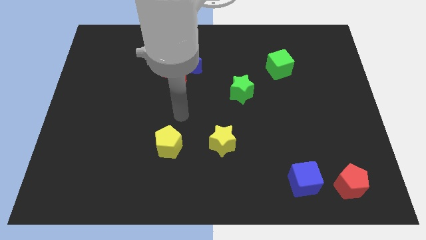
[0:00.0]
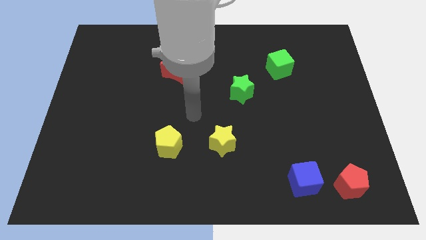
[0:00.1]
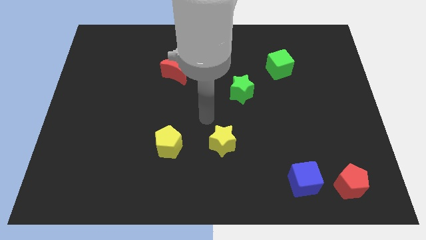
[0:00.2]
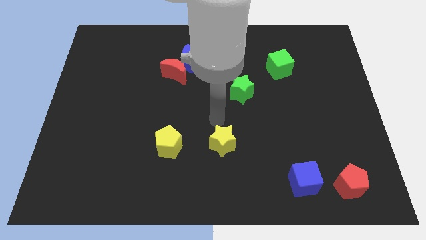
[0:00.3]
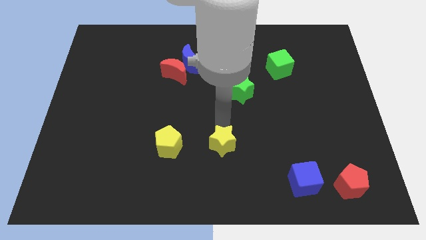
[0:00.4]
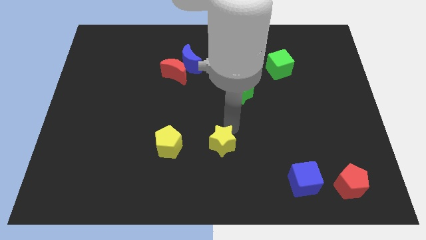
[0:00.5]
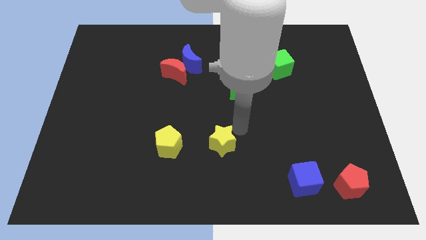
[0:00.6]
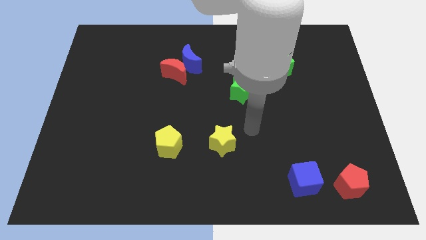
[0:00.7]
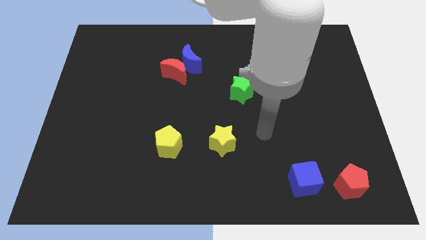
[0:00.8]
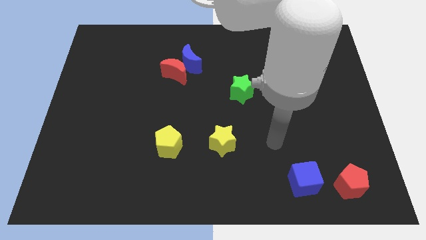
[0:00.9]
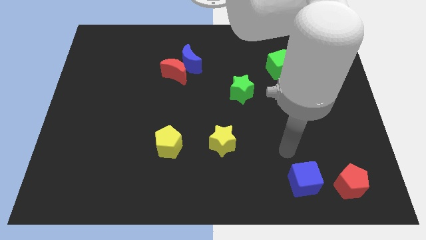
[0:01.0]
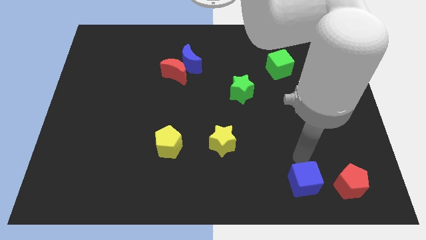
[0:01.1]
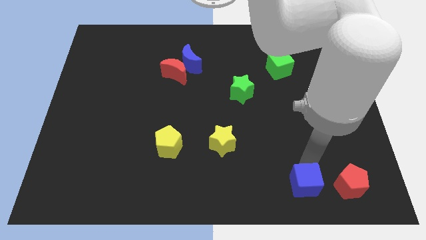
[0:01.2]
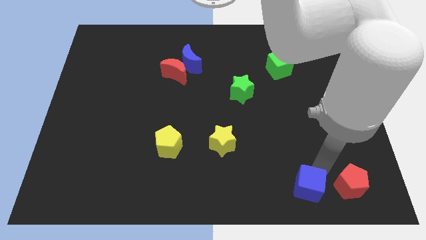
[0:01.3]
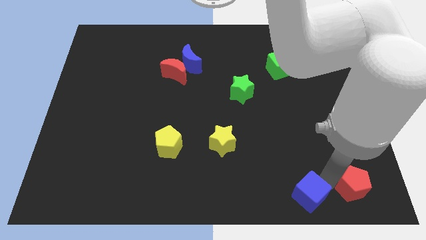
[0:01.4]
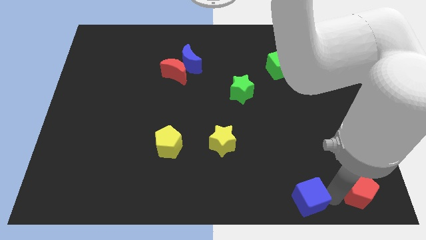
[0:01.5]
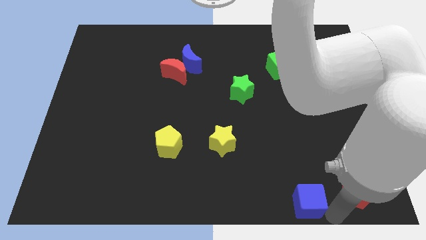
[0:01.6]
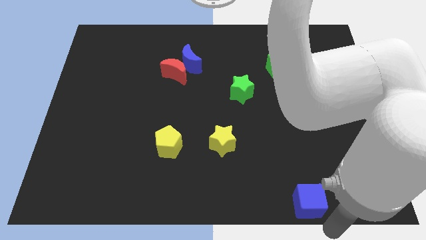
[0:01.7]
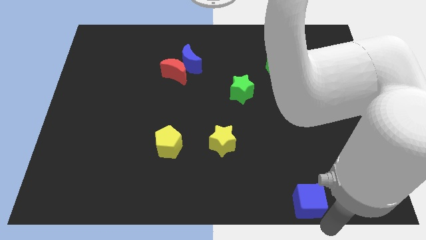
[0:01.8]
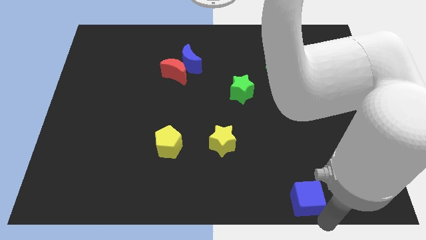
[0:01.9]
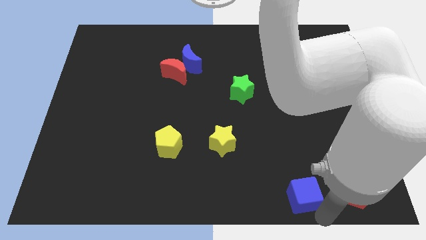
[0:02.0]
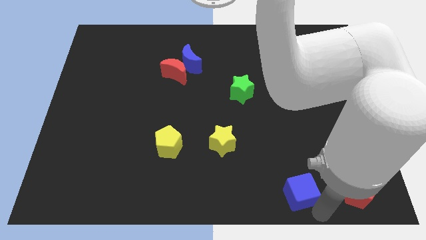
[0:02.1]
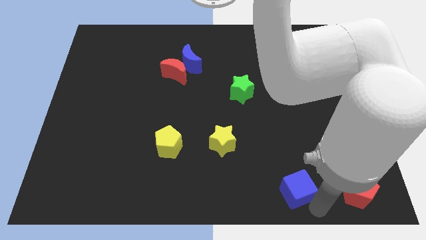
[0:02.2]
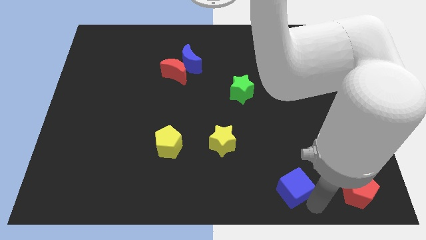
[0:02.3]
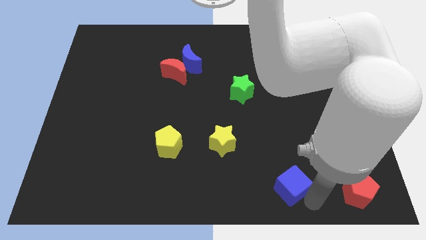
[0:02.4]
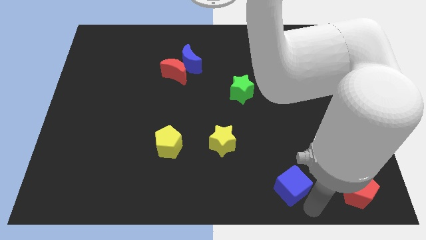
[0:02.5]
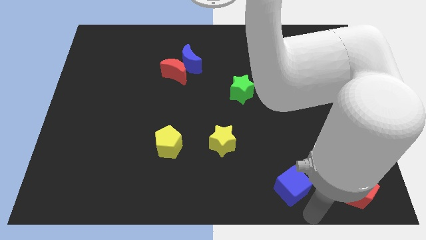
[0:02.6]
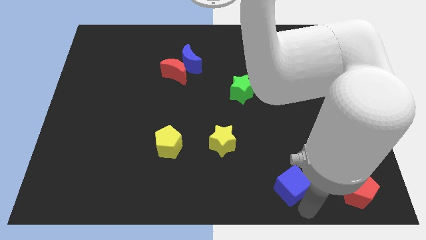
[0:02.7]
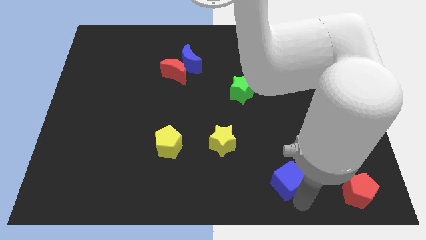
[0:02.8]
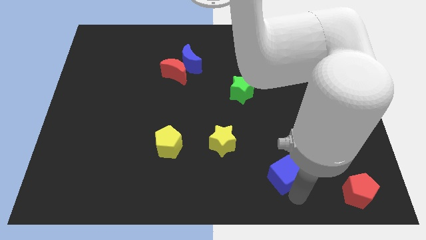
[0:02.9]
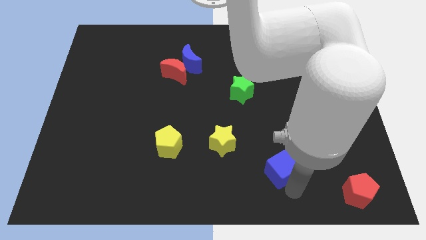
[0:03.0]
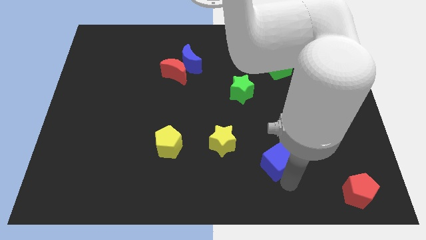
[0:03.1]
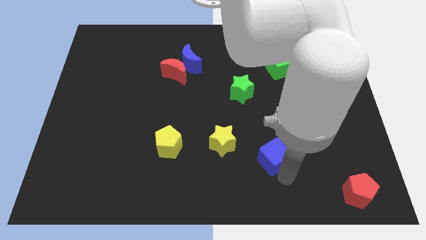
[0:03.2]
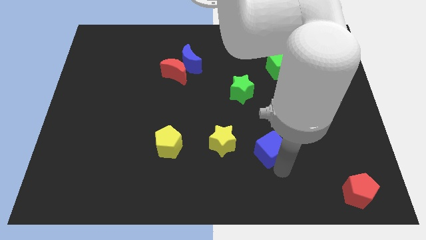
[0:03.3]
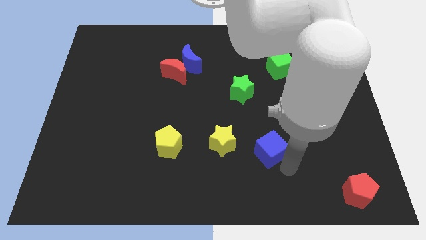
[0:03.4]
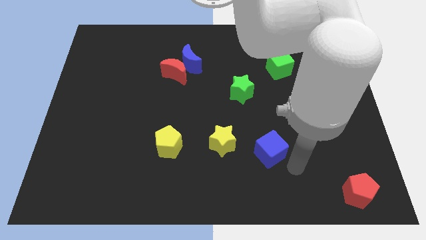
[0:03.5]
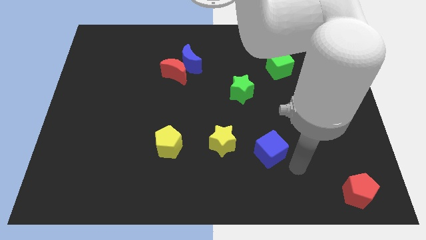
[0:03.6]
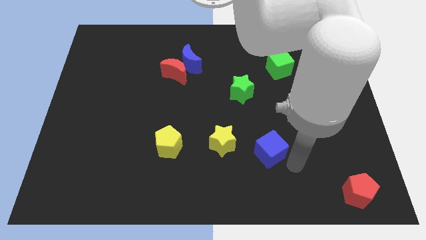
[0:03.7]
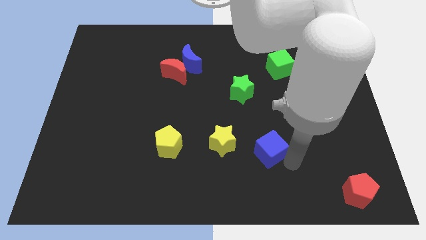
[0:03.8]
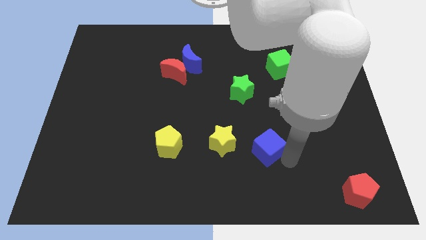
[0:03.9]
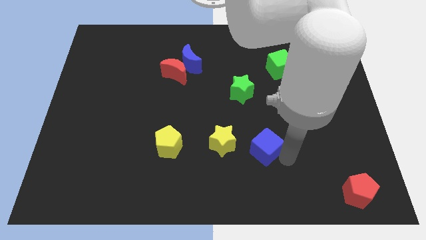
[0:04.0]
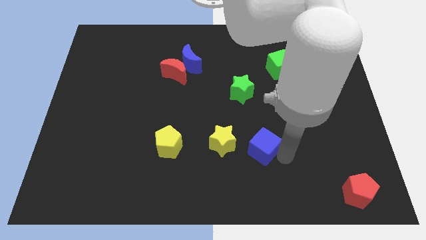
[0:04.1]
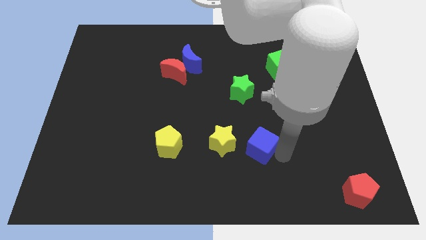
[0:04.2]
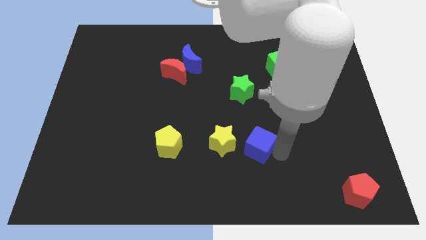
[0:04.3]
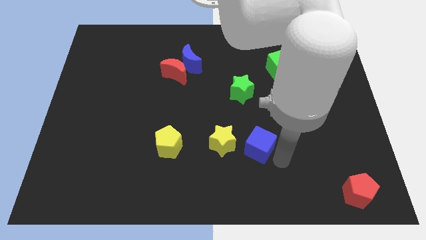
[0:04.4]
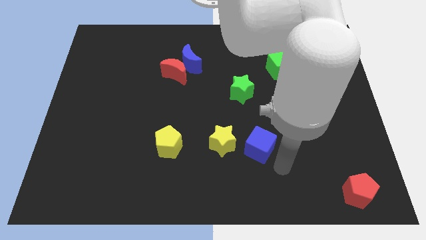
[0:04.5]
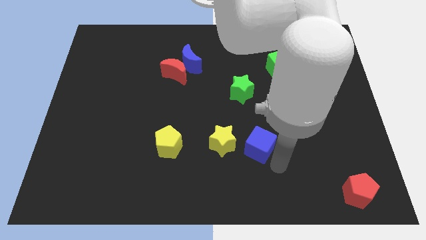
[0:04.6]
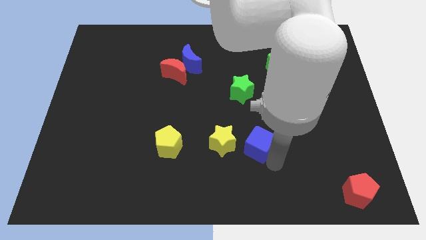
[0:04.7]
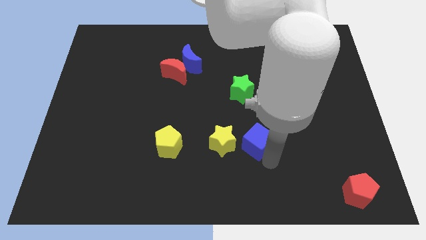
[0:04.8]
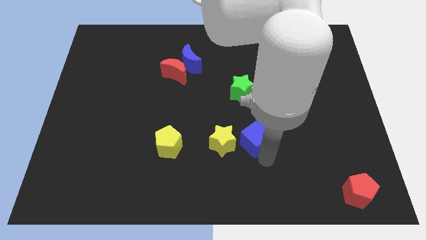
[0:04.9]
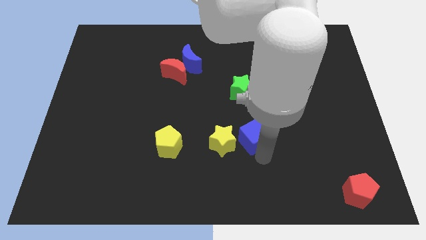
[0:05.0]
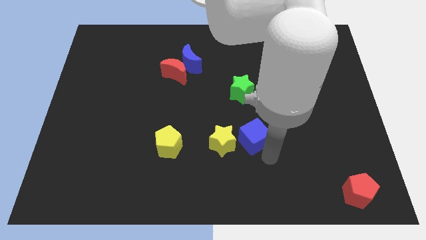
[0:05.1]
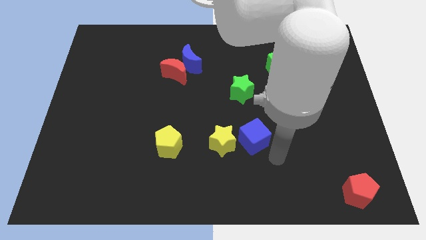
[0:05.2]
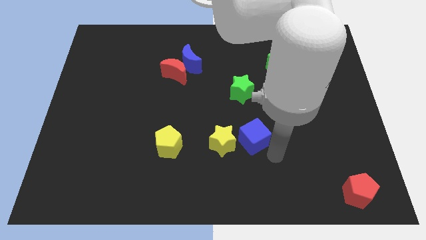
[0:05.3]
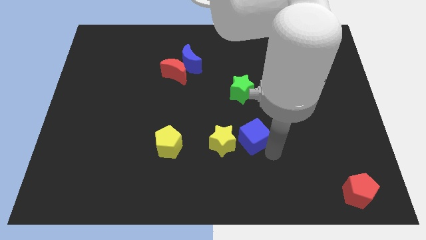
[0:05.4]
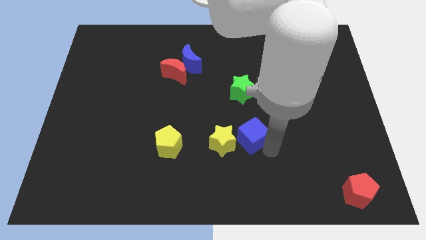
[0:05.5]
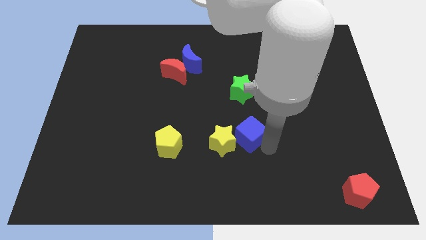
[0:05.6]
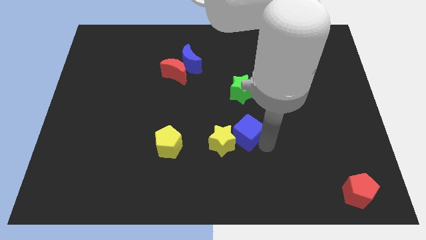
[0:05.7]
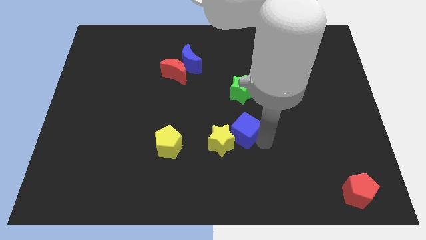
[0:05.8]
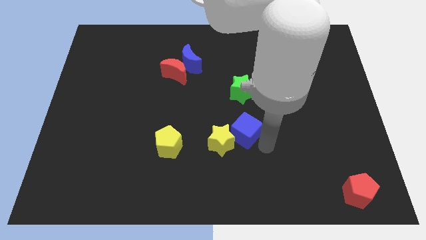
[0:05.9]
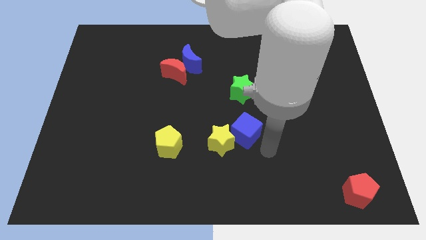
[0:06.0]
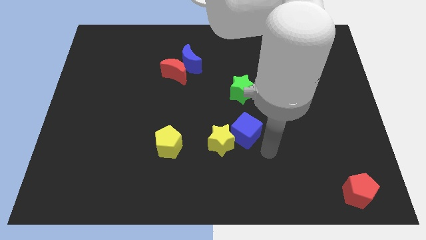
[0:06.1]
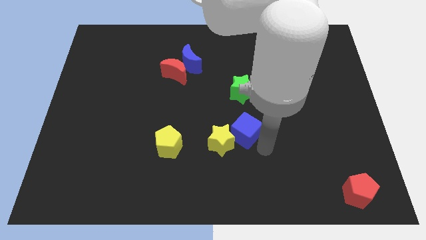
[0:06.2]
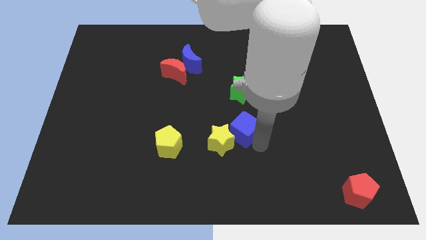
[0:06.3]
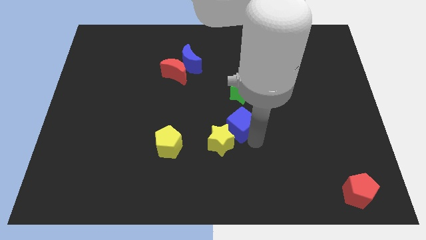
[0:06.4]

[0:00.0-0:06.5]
move the blue cube above the yellow star

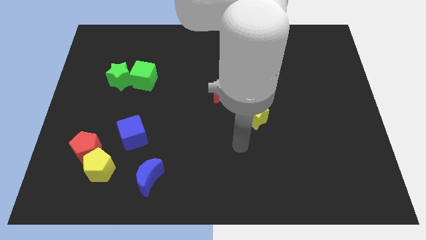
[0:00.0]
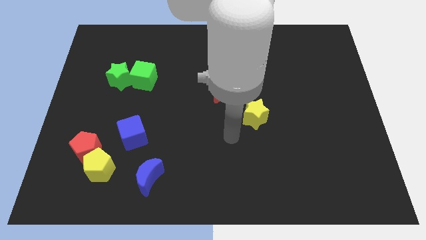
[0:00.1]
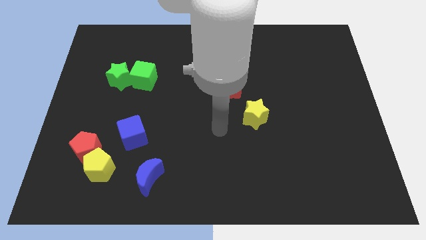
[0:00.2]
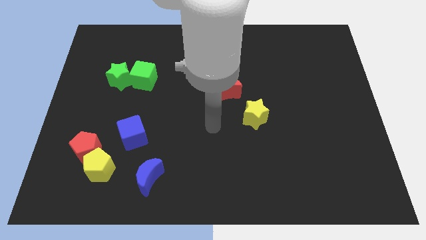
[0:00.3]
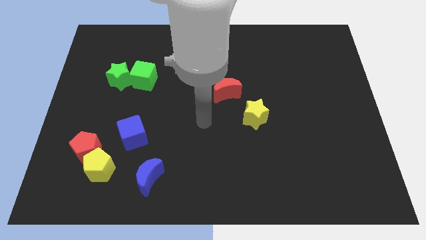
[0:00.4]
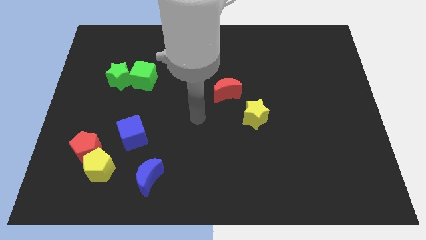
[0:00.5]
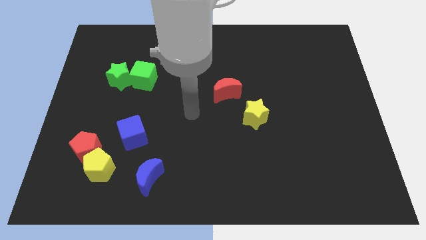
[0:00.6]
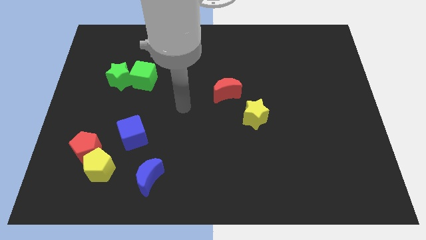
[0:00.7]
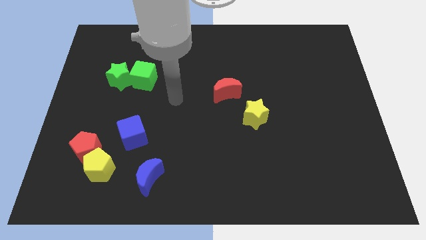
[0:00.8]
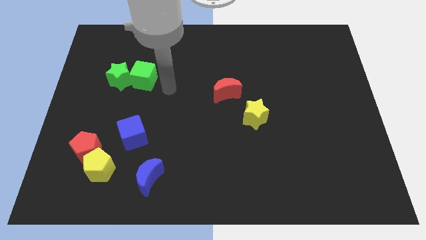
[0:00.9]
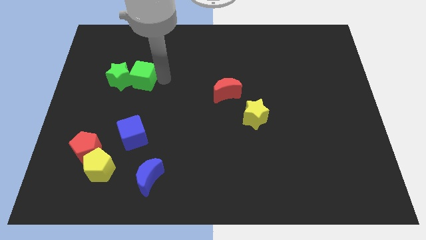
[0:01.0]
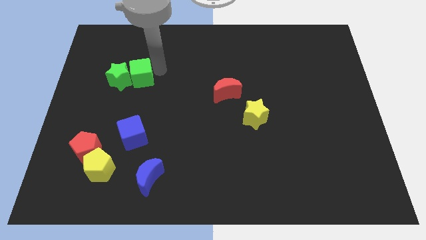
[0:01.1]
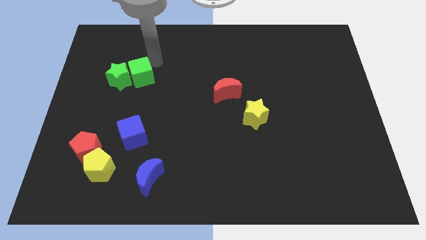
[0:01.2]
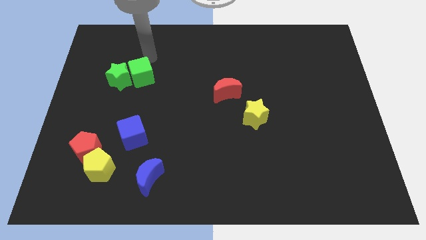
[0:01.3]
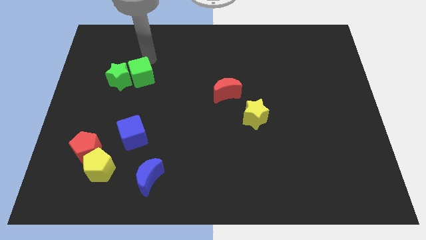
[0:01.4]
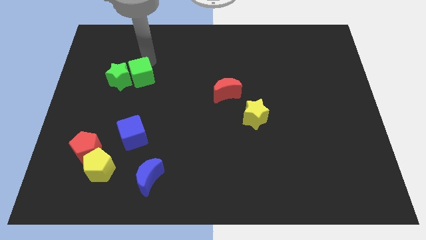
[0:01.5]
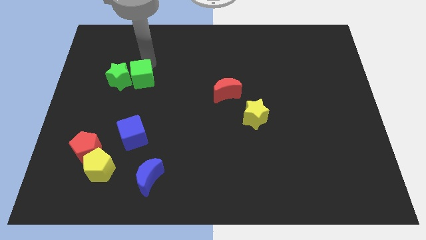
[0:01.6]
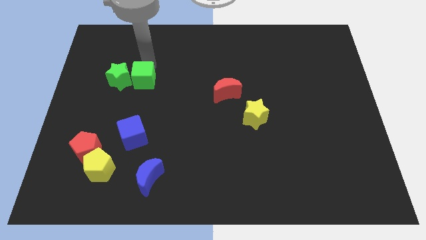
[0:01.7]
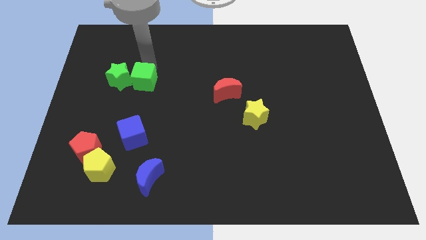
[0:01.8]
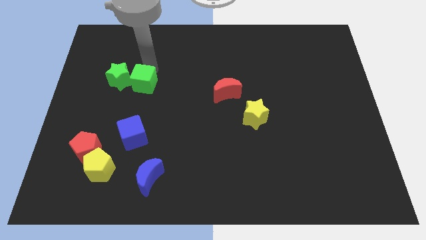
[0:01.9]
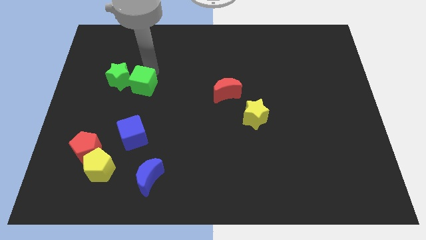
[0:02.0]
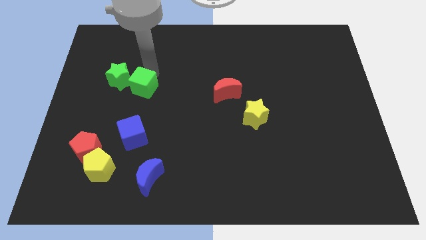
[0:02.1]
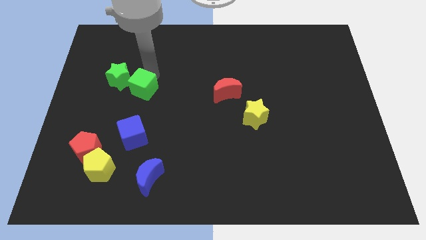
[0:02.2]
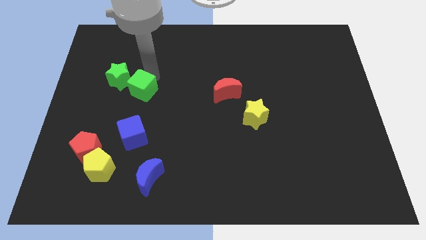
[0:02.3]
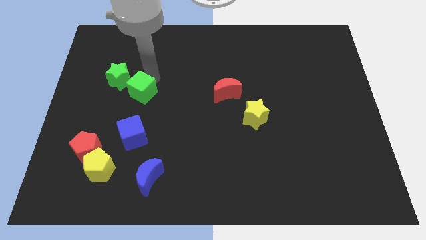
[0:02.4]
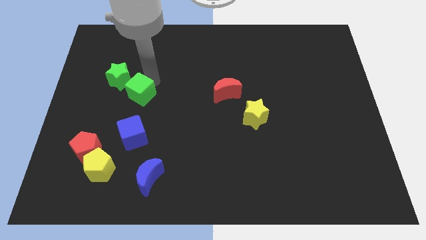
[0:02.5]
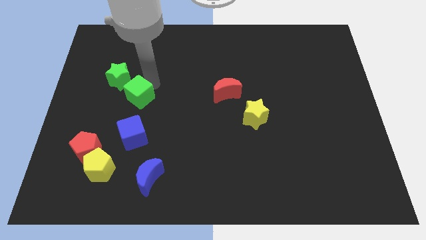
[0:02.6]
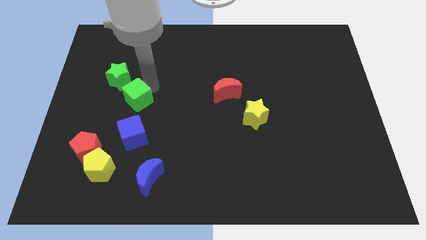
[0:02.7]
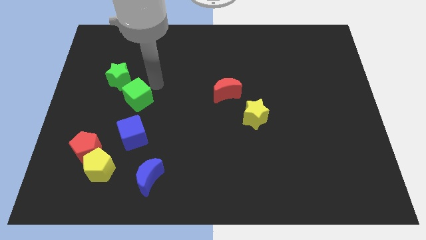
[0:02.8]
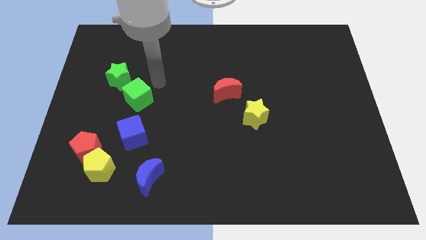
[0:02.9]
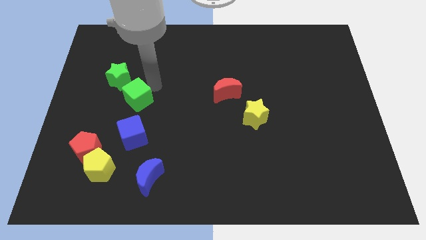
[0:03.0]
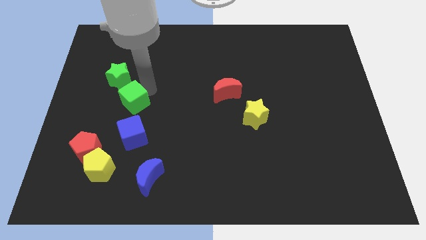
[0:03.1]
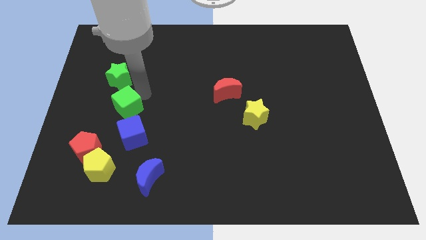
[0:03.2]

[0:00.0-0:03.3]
push the green cube diagonally up and to the left of the blue cube
